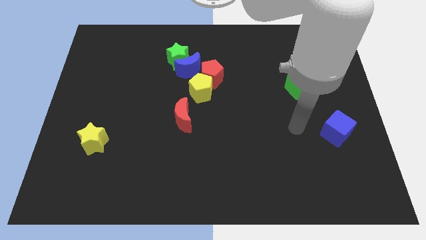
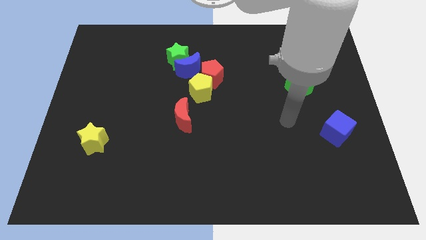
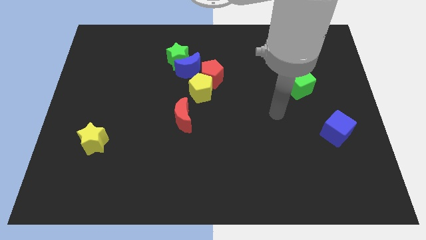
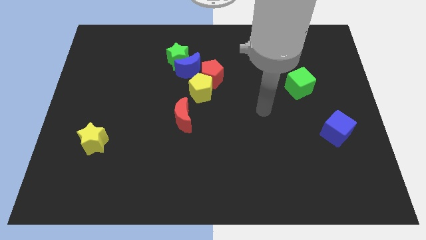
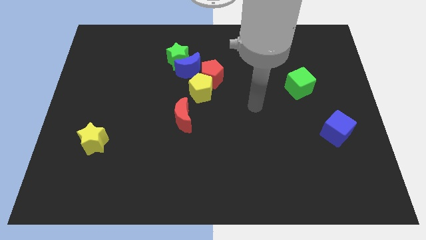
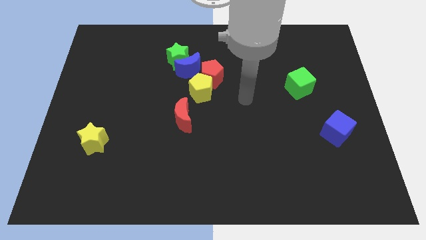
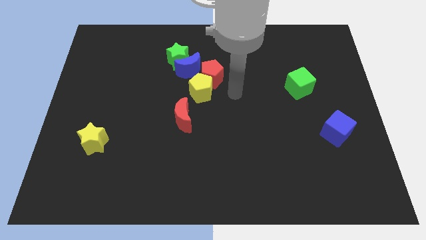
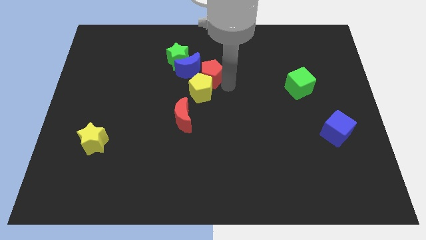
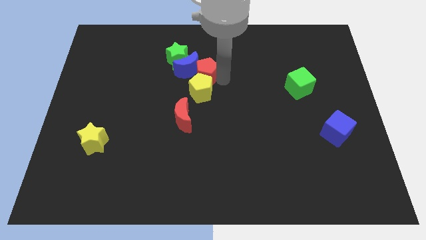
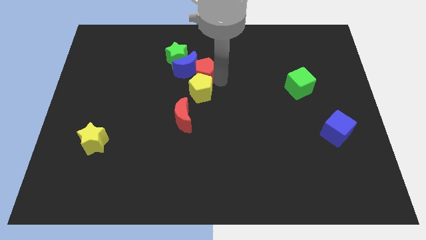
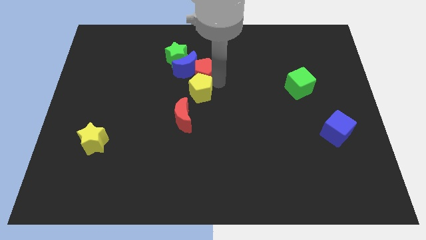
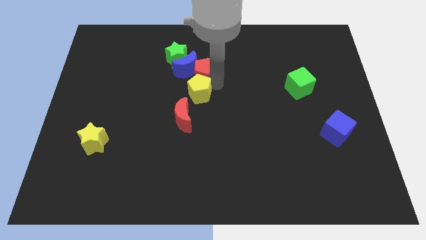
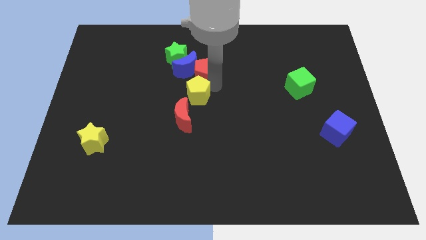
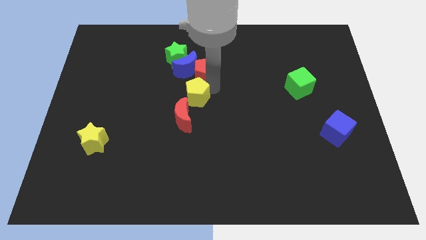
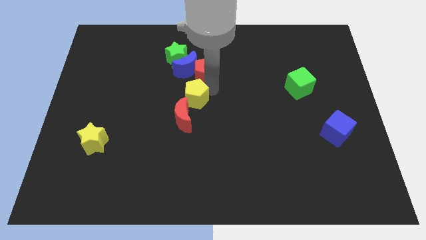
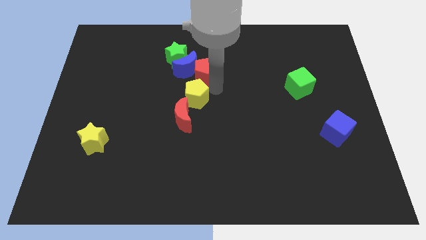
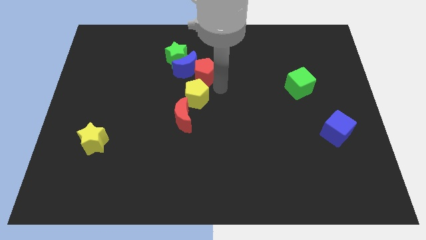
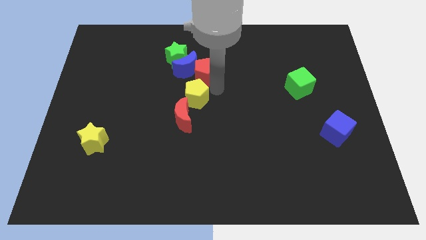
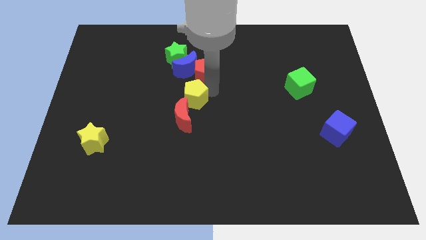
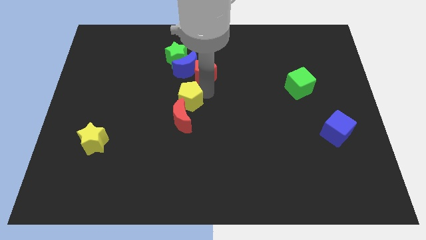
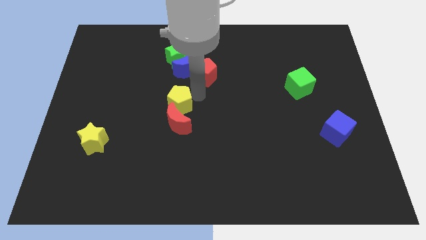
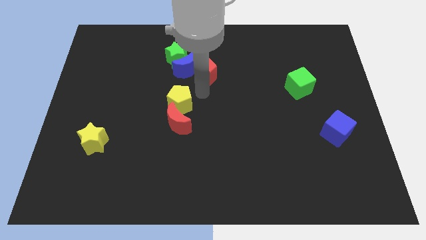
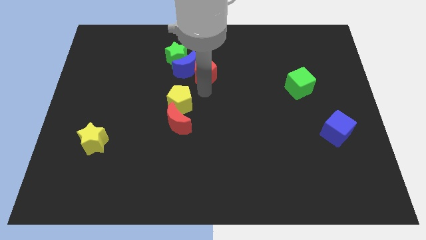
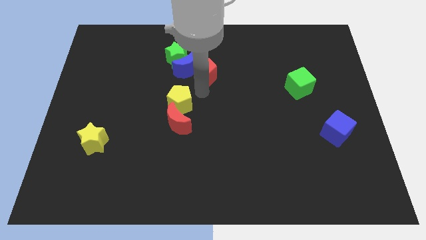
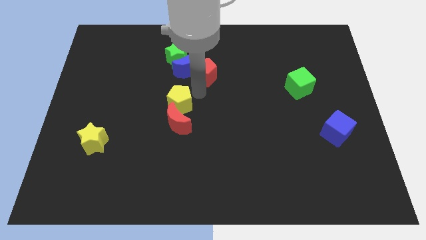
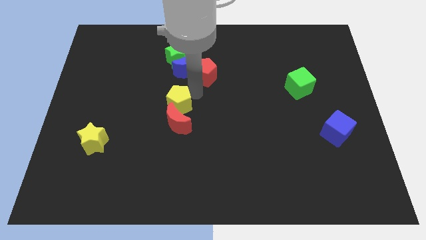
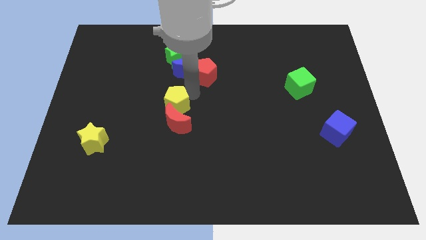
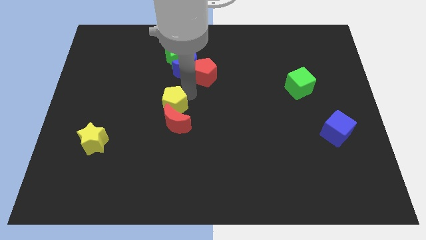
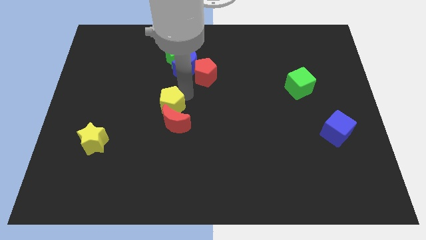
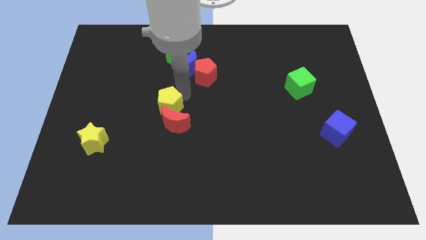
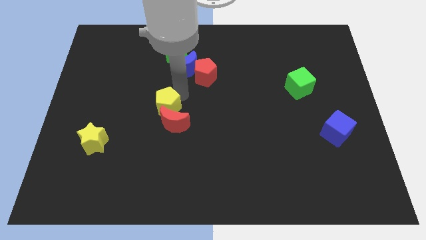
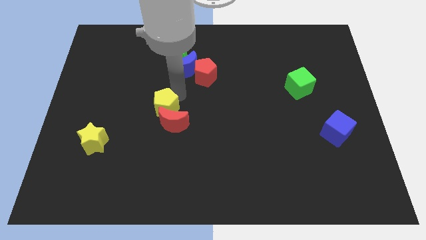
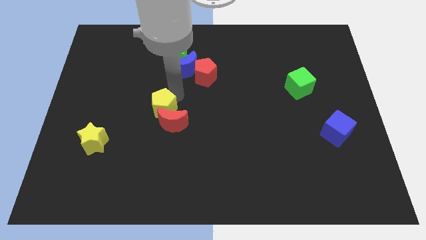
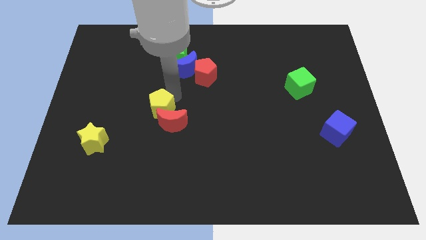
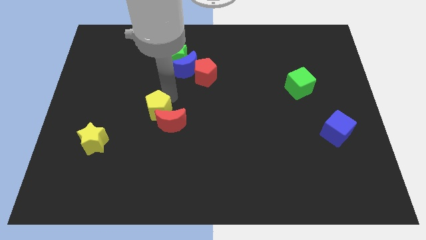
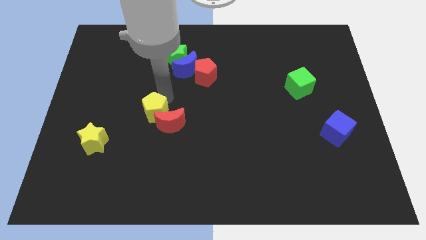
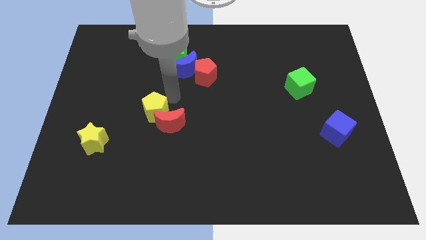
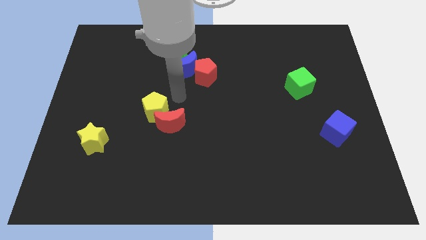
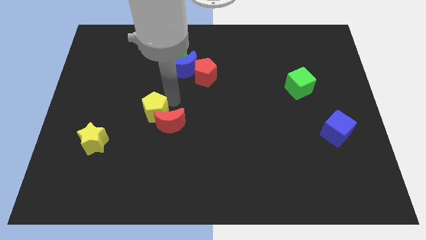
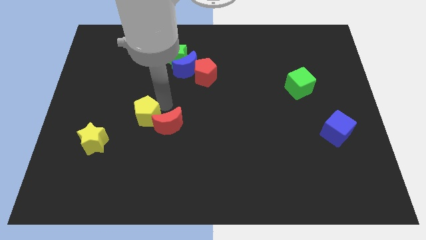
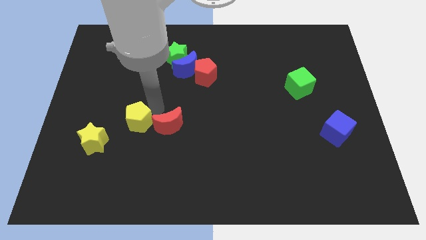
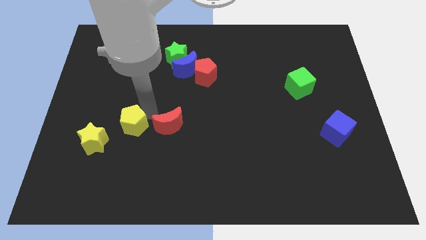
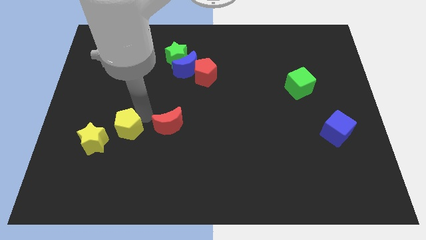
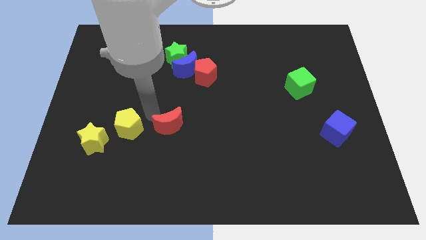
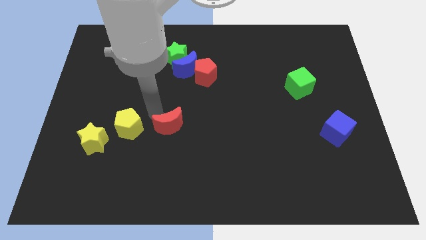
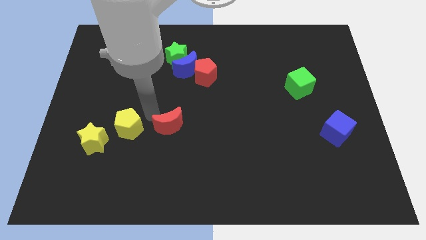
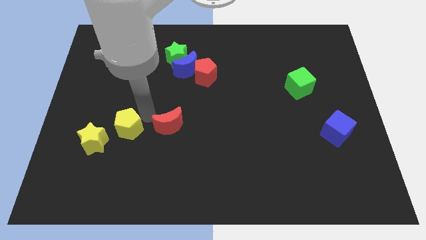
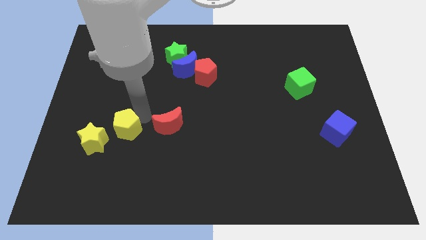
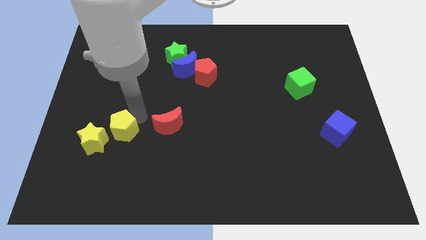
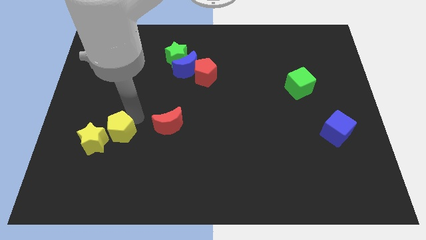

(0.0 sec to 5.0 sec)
move the yellow pentagon to the yellow star

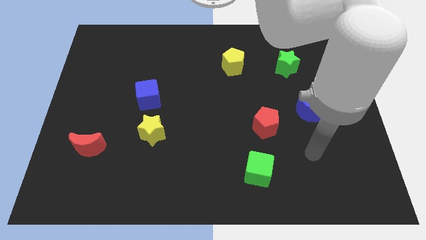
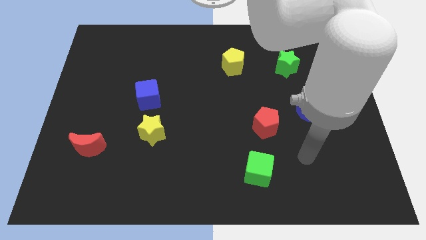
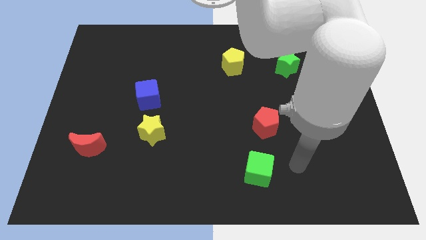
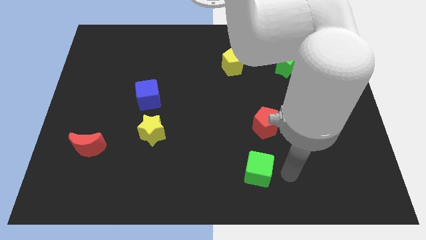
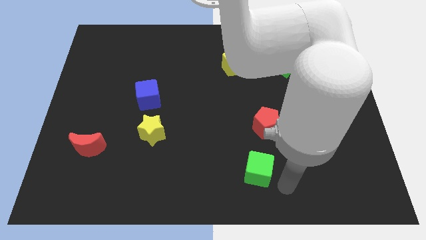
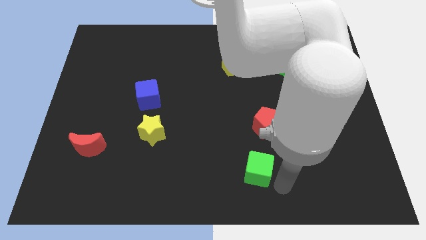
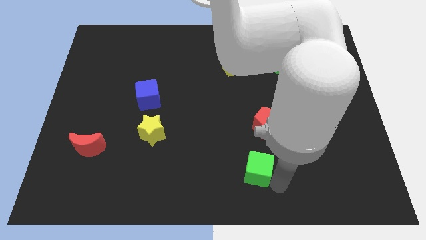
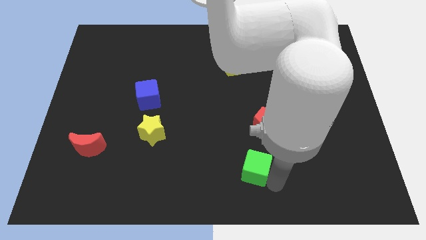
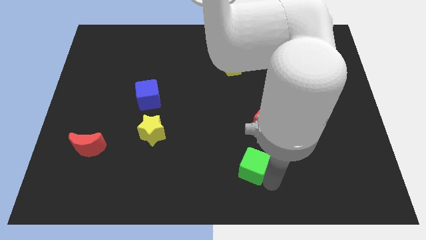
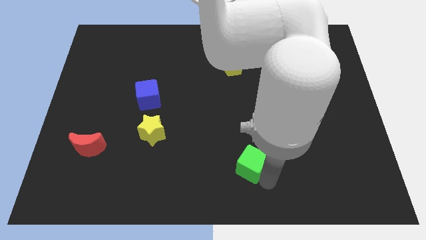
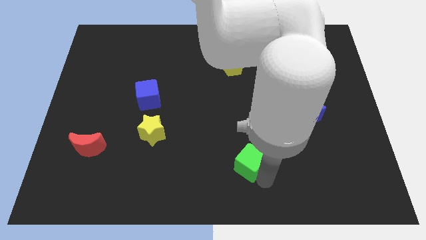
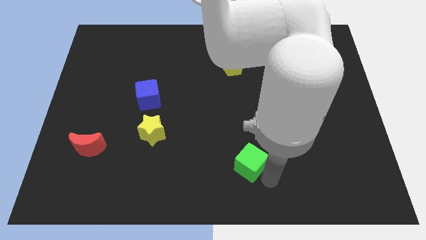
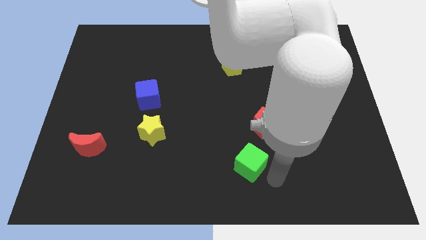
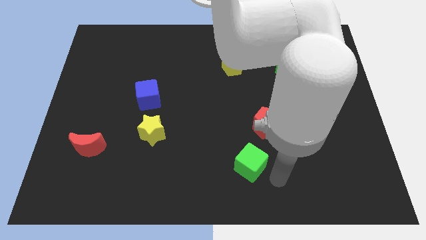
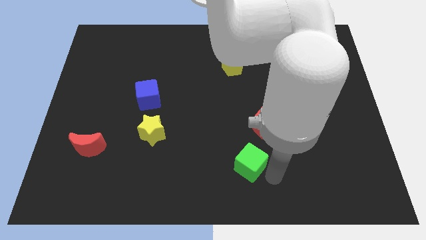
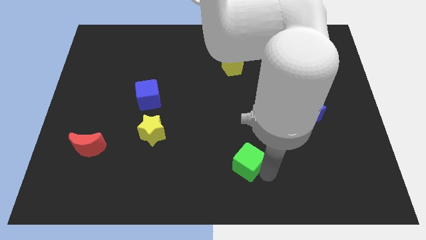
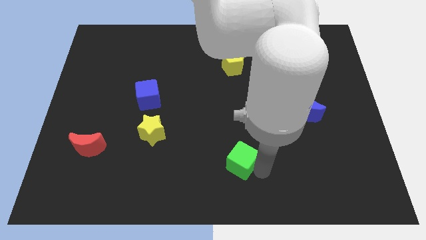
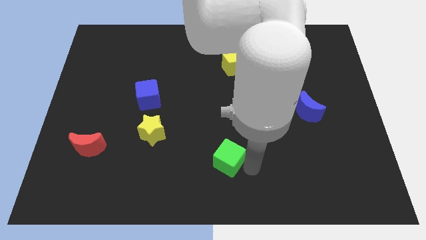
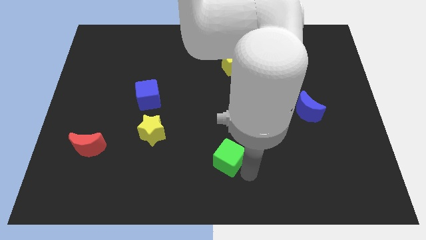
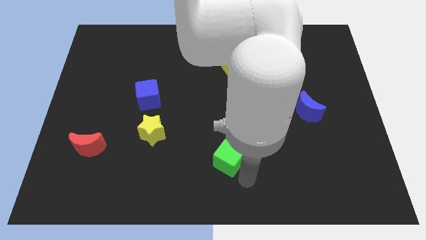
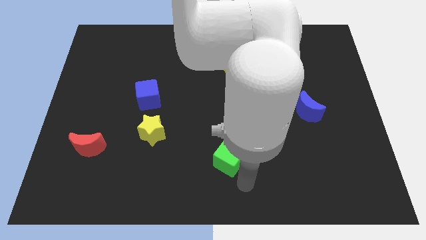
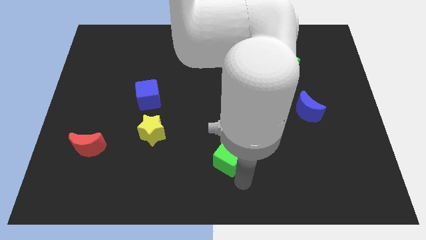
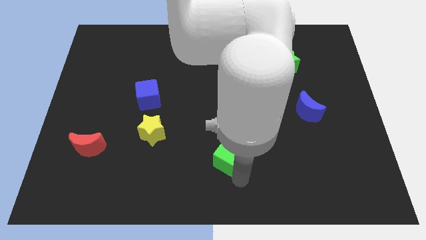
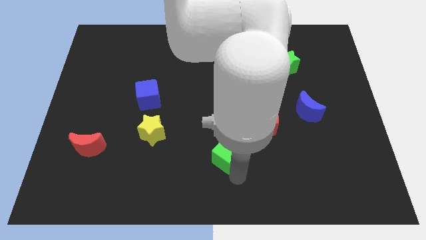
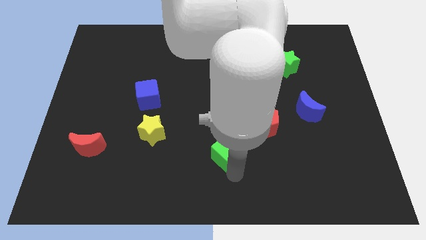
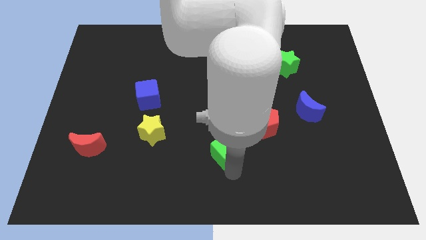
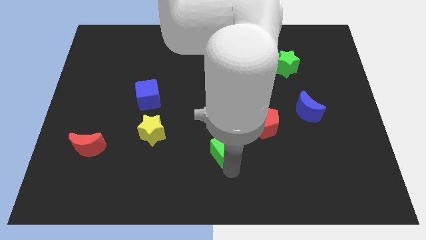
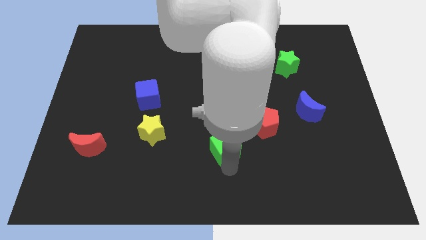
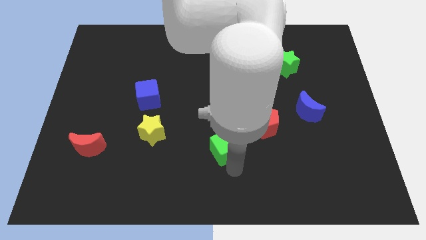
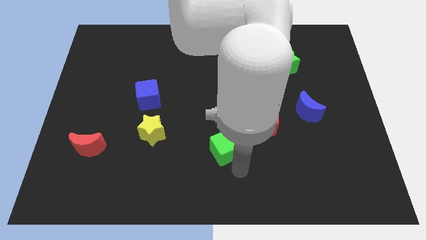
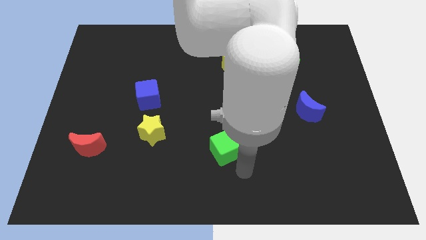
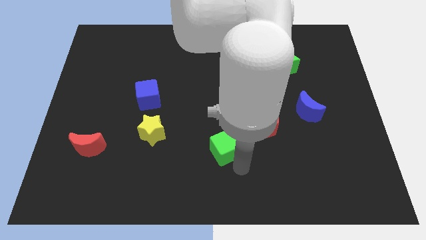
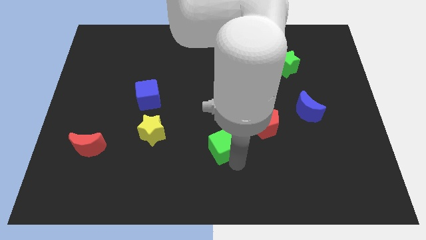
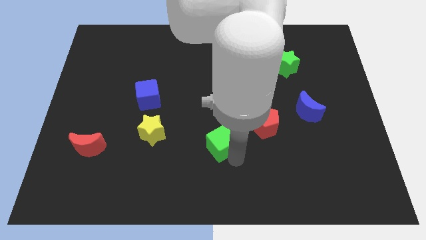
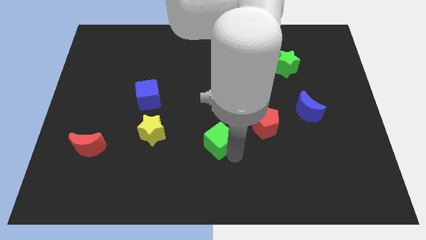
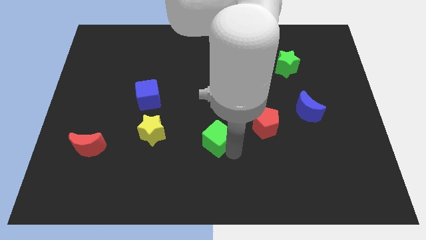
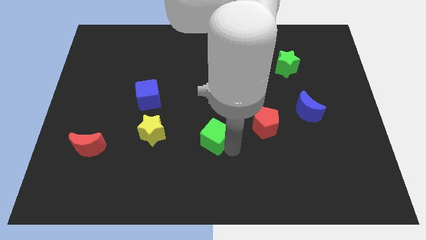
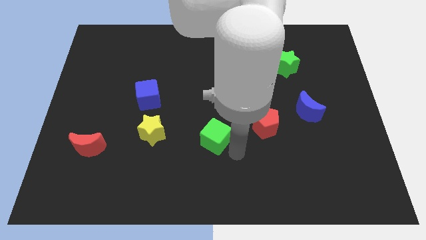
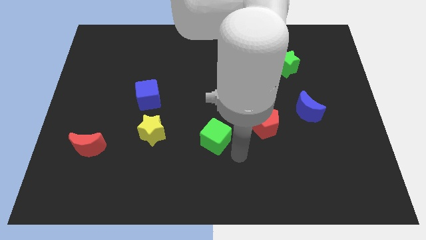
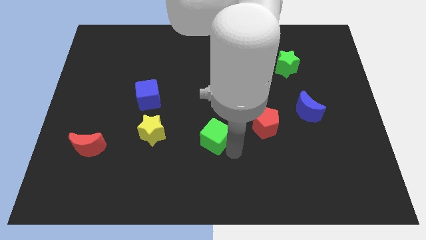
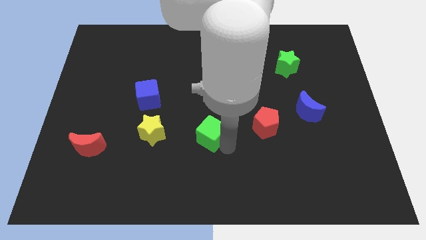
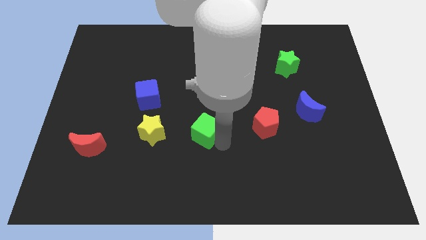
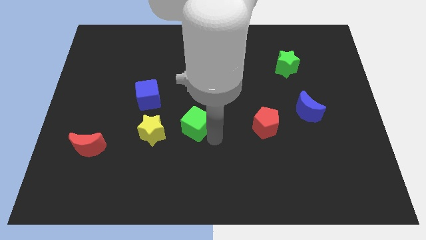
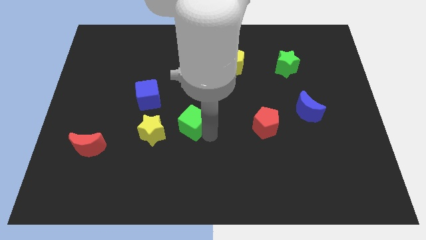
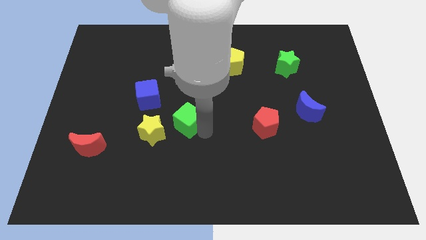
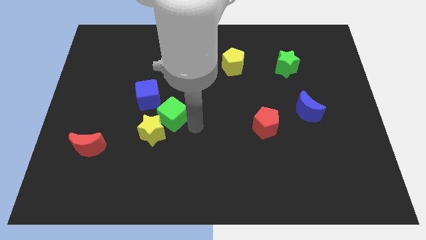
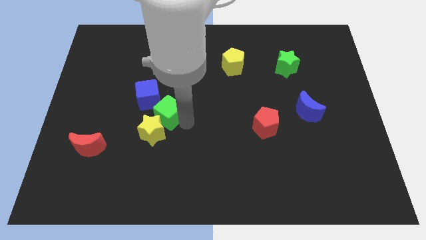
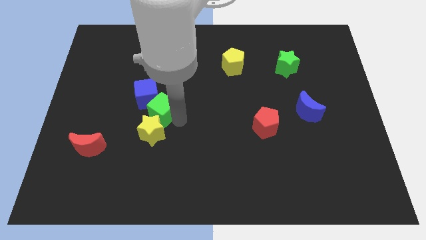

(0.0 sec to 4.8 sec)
push the green cube towards the blue cube
